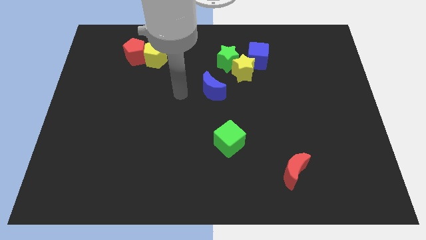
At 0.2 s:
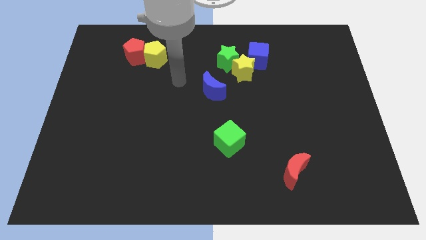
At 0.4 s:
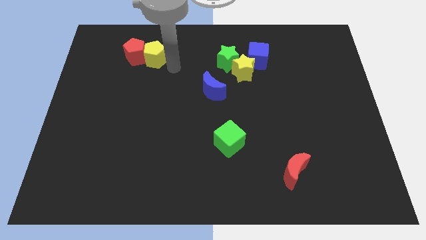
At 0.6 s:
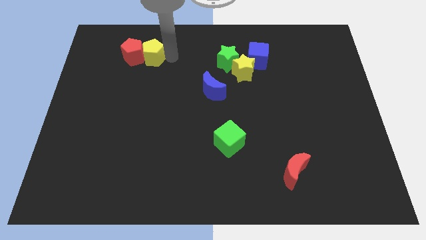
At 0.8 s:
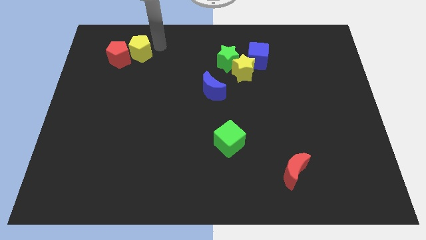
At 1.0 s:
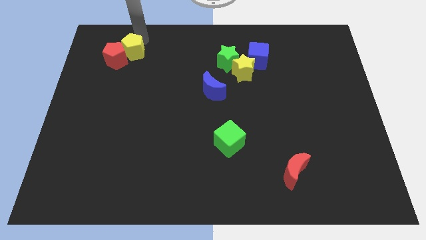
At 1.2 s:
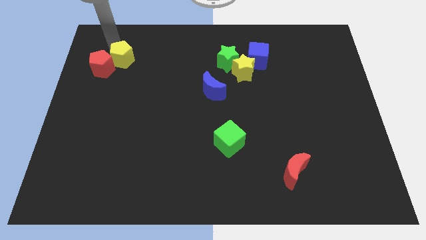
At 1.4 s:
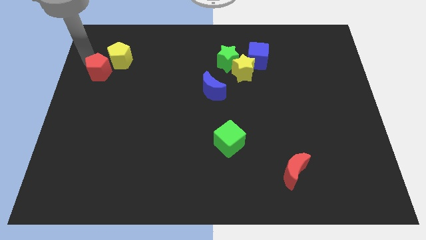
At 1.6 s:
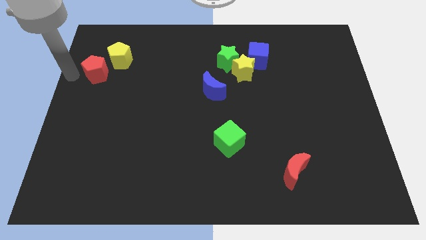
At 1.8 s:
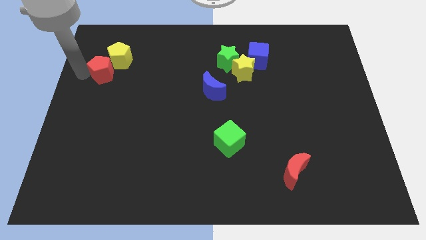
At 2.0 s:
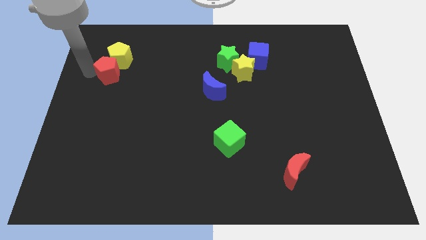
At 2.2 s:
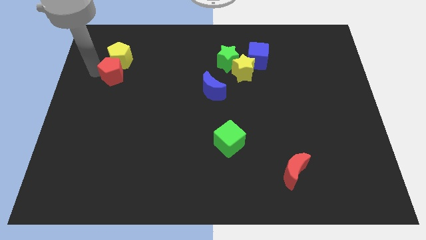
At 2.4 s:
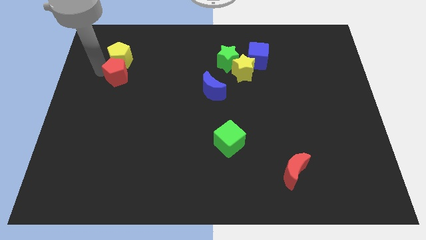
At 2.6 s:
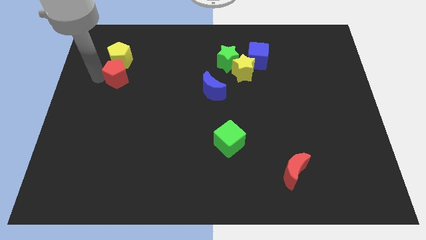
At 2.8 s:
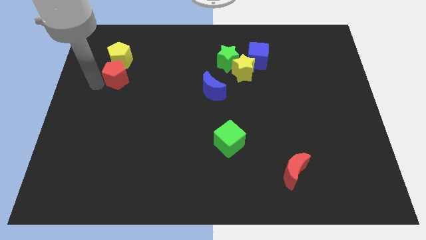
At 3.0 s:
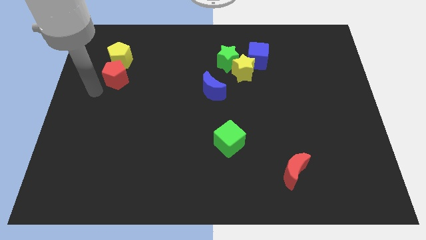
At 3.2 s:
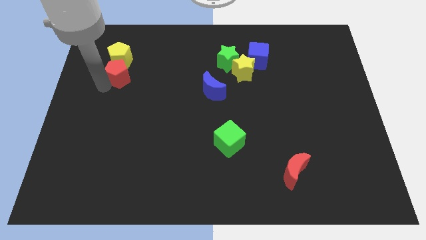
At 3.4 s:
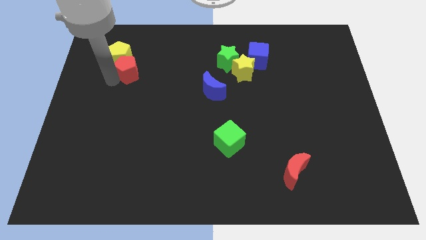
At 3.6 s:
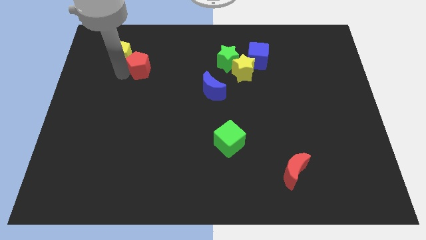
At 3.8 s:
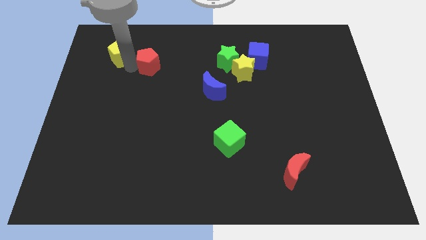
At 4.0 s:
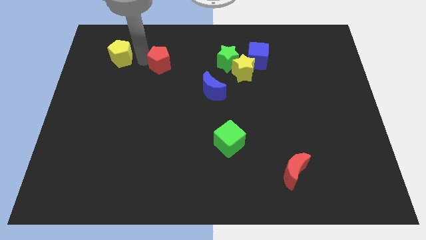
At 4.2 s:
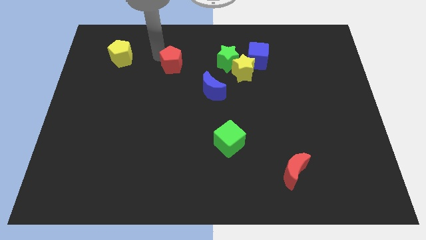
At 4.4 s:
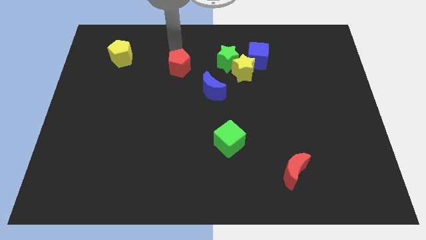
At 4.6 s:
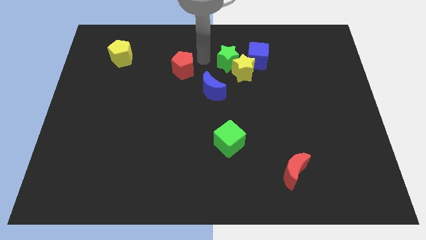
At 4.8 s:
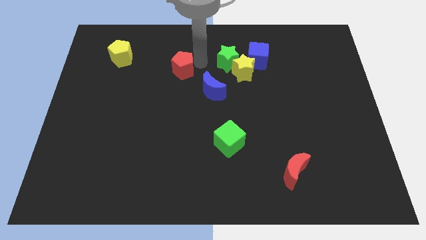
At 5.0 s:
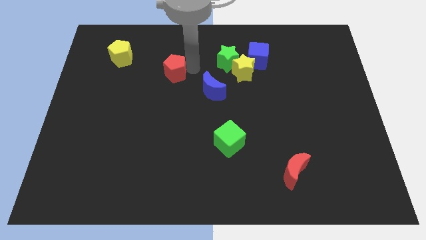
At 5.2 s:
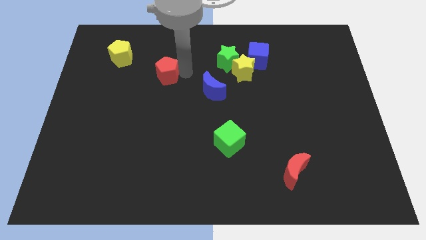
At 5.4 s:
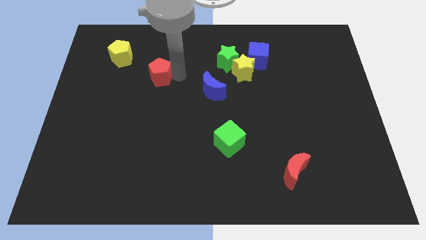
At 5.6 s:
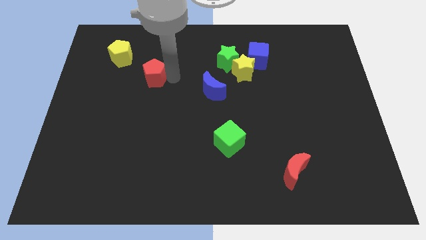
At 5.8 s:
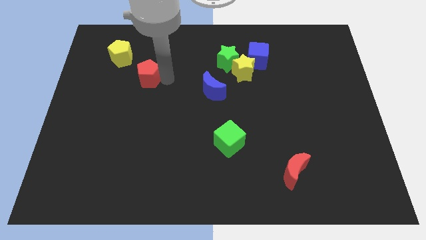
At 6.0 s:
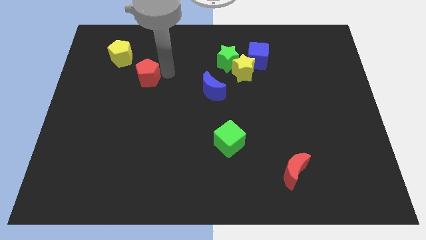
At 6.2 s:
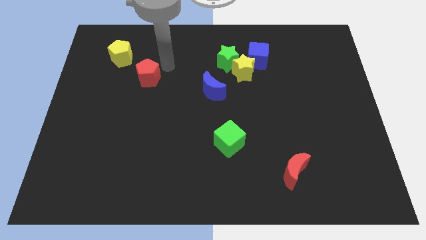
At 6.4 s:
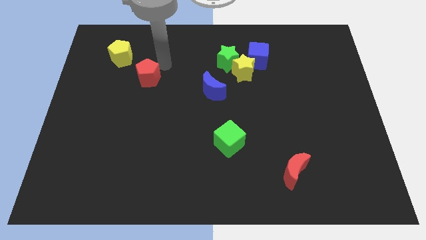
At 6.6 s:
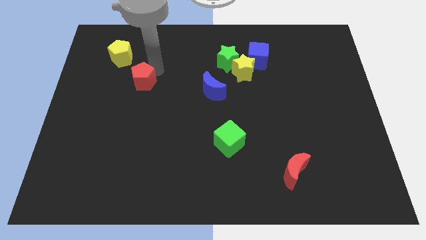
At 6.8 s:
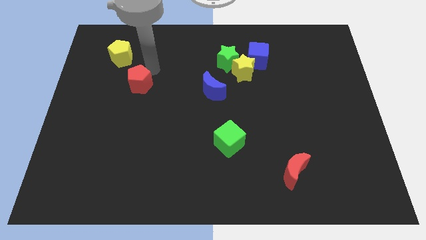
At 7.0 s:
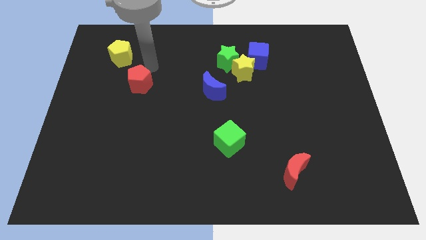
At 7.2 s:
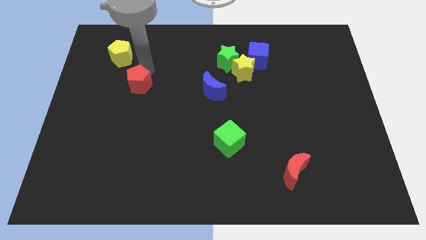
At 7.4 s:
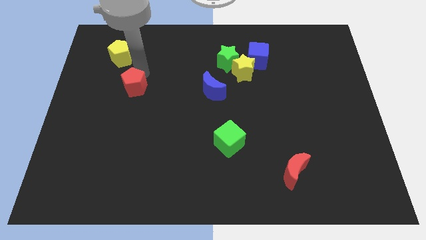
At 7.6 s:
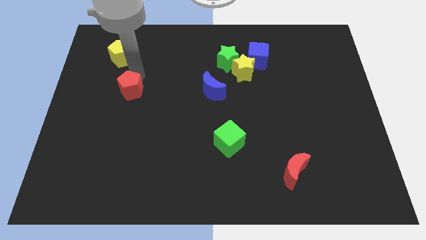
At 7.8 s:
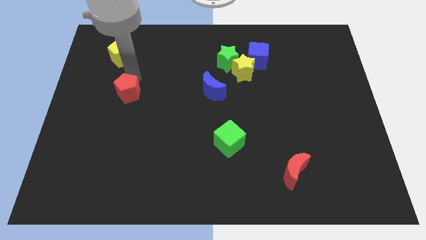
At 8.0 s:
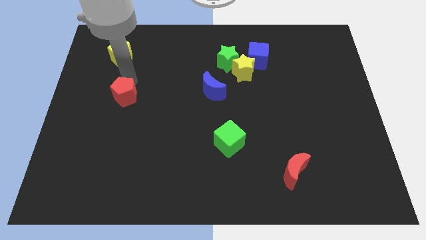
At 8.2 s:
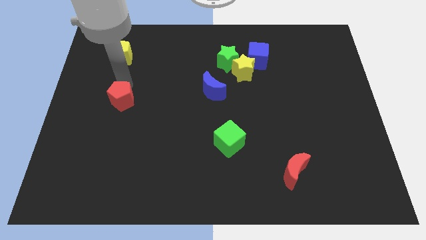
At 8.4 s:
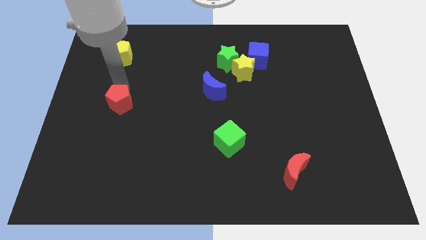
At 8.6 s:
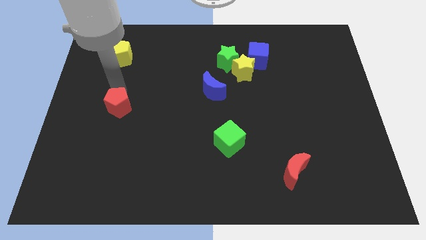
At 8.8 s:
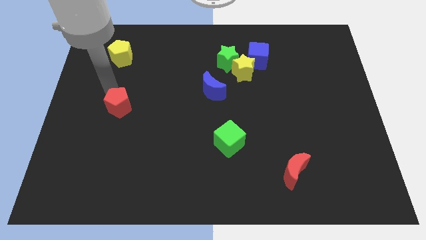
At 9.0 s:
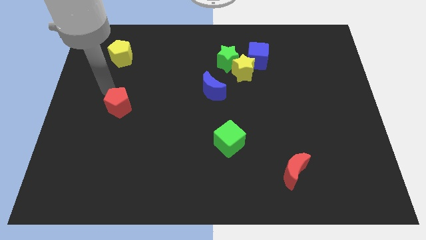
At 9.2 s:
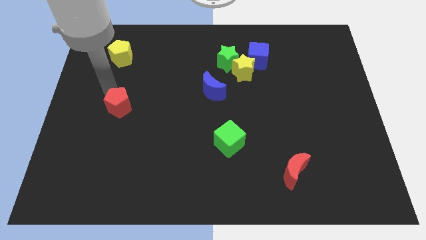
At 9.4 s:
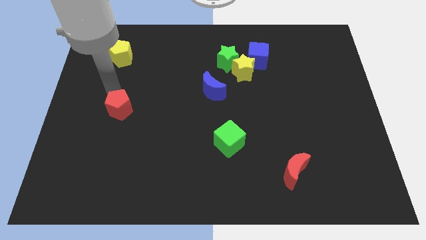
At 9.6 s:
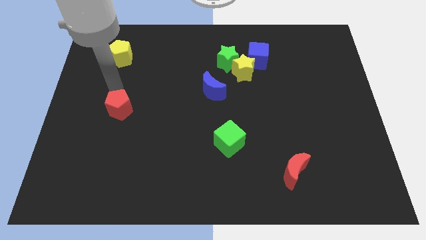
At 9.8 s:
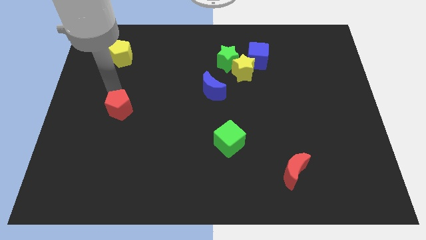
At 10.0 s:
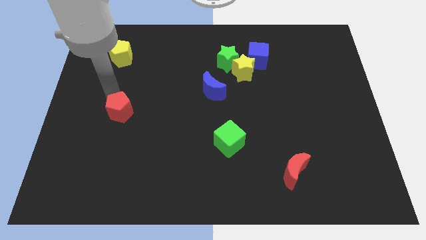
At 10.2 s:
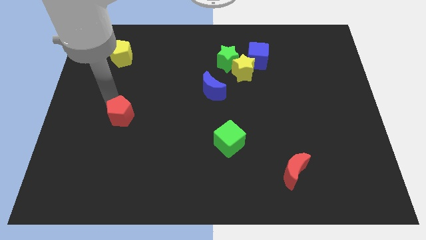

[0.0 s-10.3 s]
move the red pentagon down

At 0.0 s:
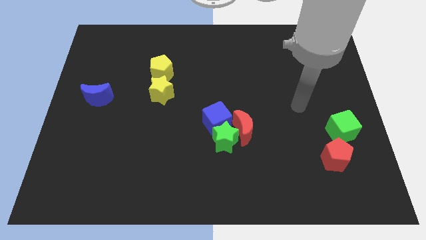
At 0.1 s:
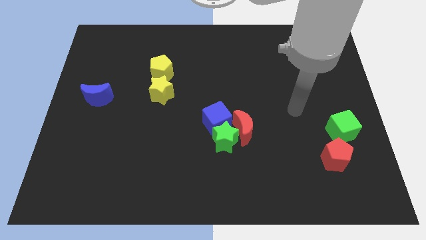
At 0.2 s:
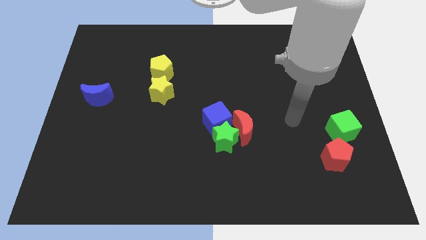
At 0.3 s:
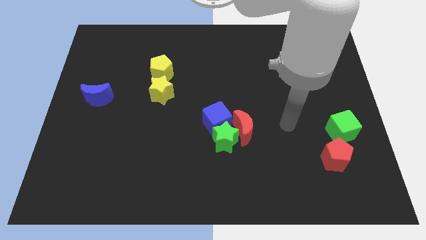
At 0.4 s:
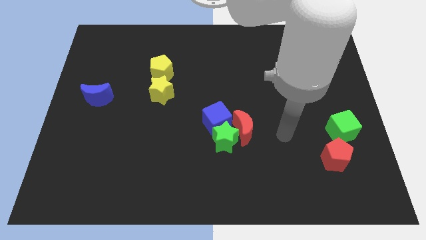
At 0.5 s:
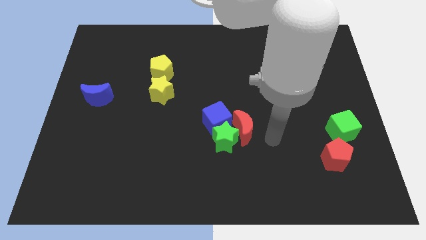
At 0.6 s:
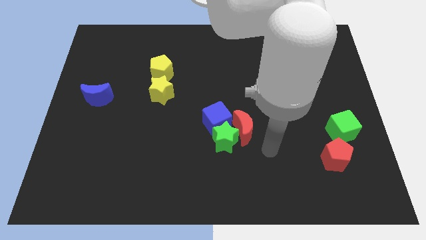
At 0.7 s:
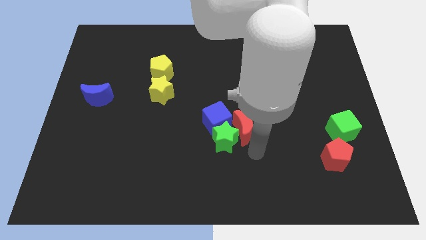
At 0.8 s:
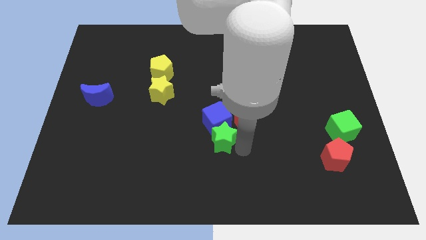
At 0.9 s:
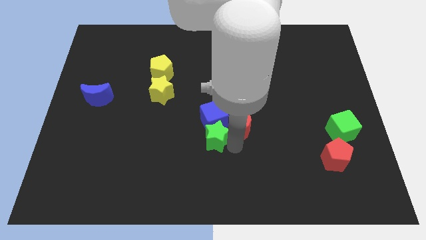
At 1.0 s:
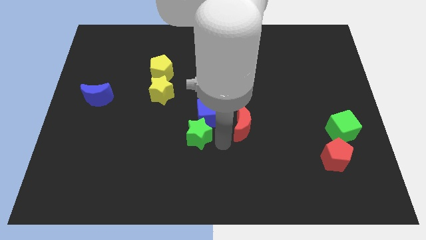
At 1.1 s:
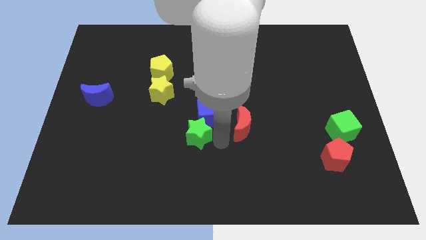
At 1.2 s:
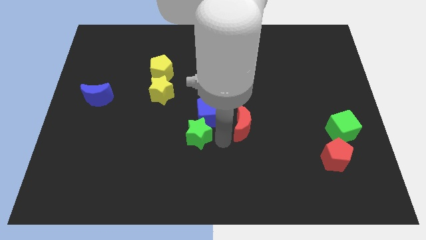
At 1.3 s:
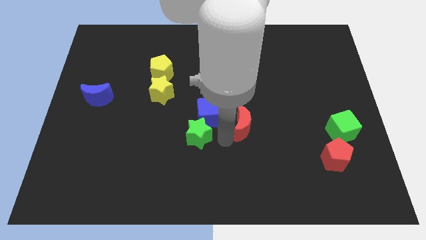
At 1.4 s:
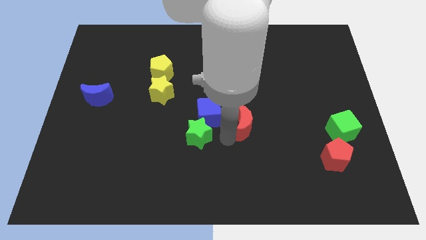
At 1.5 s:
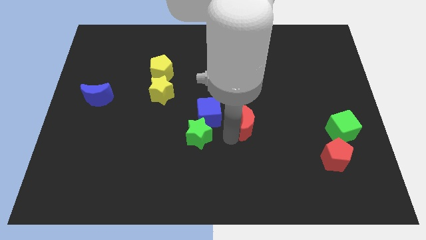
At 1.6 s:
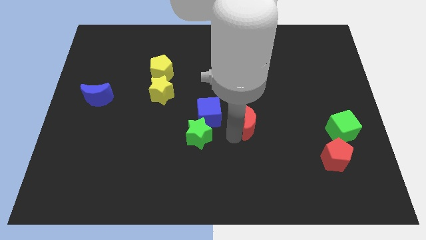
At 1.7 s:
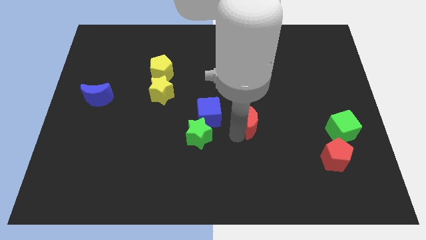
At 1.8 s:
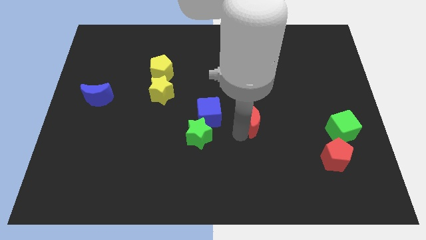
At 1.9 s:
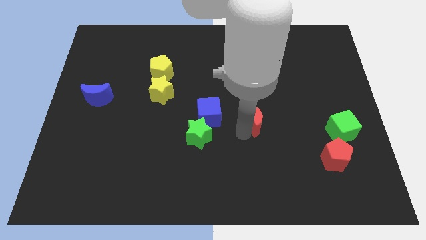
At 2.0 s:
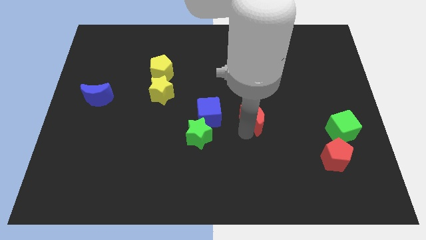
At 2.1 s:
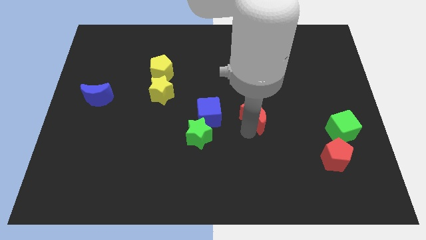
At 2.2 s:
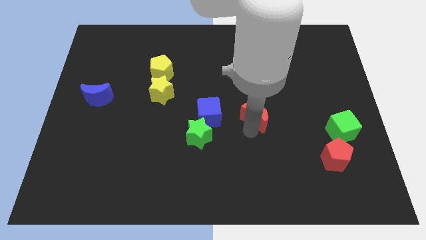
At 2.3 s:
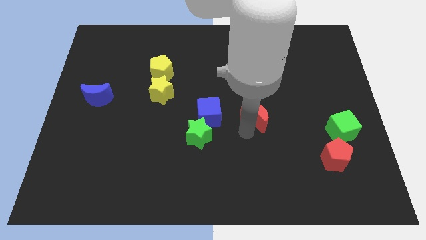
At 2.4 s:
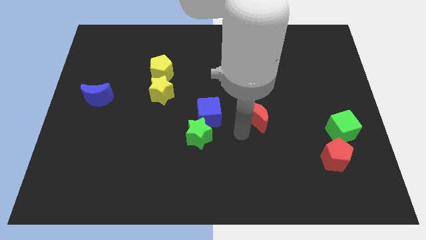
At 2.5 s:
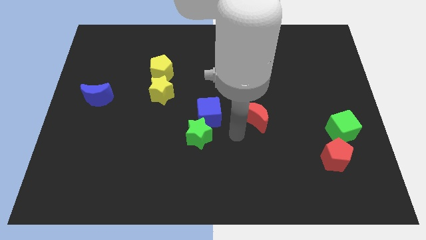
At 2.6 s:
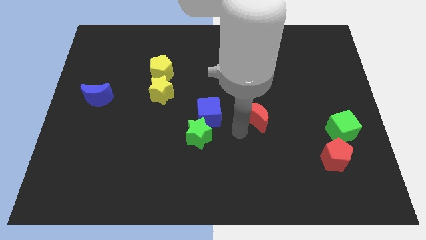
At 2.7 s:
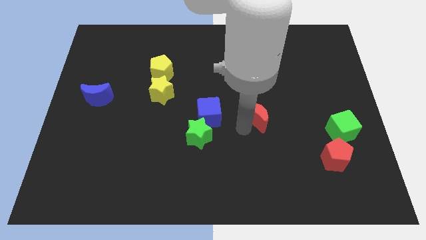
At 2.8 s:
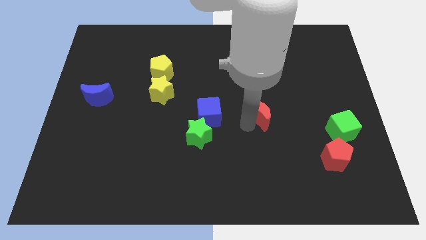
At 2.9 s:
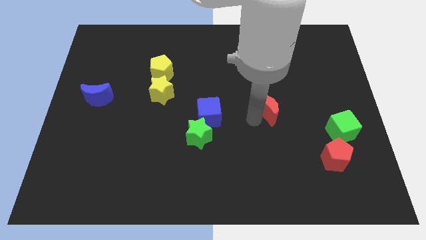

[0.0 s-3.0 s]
move the red moon somewhat up and then to the right
